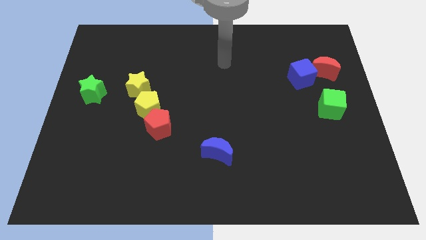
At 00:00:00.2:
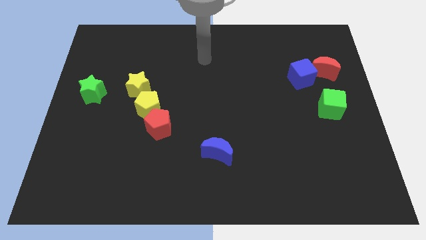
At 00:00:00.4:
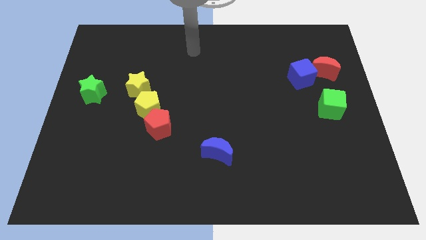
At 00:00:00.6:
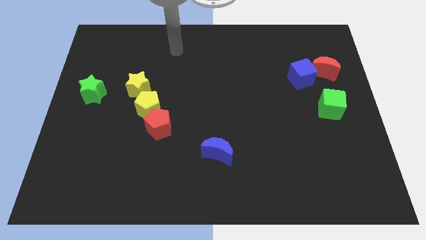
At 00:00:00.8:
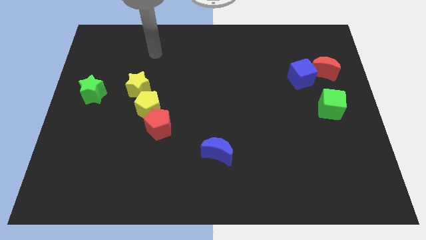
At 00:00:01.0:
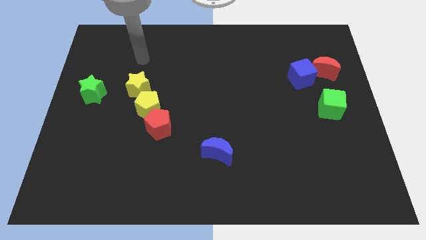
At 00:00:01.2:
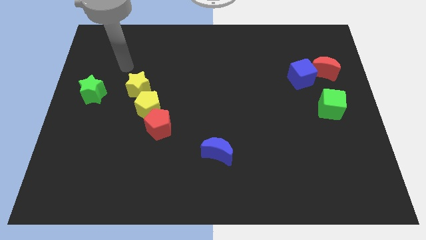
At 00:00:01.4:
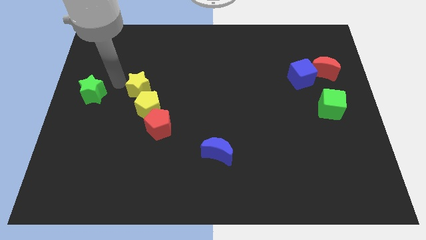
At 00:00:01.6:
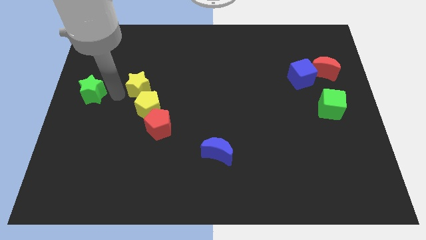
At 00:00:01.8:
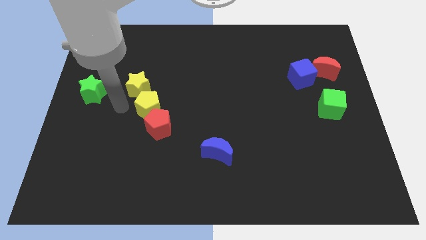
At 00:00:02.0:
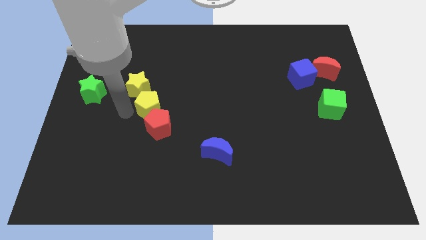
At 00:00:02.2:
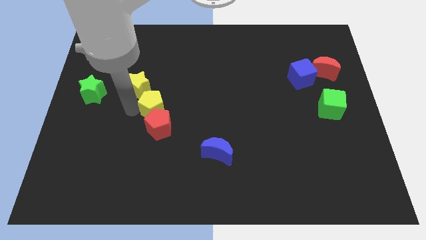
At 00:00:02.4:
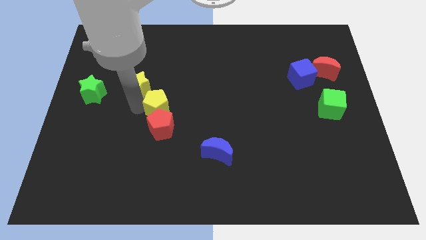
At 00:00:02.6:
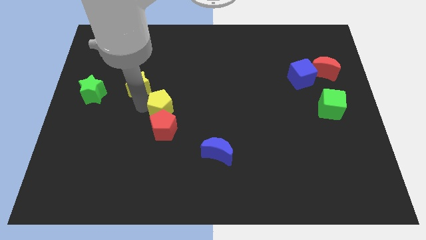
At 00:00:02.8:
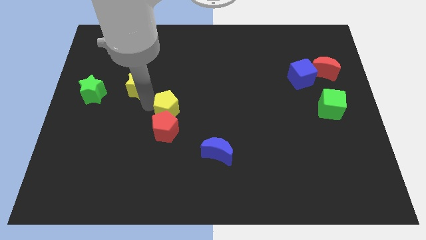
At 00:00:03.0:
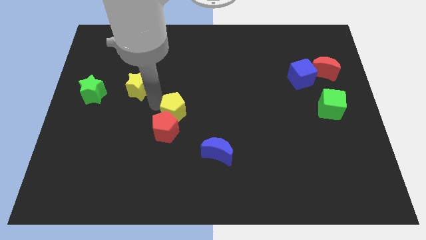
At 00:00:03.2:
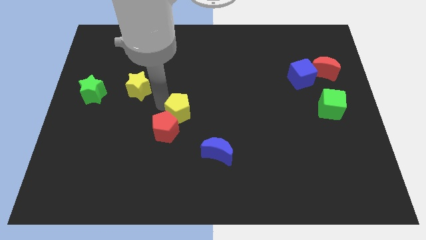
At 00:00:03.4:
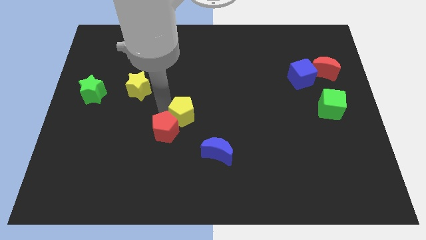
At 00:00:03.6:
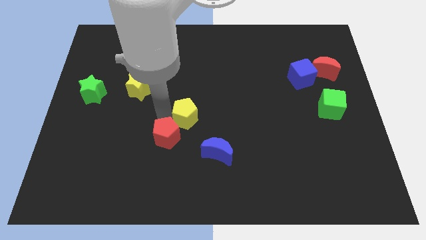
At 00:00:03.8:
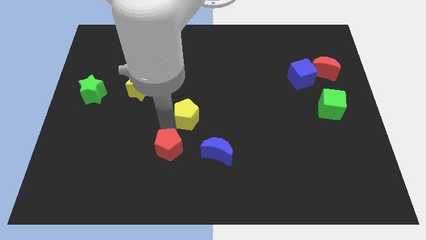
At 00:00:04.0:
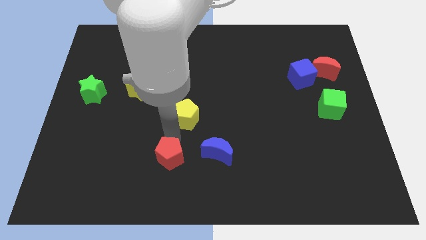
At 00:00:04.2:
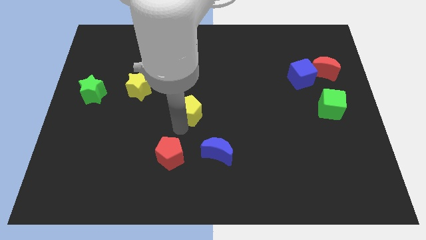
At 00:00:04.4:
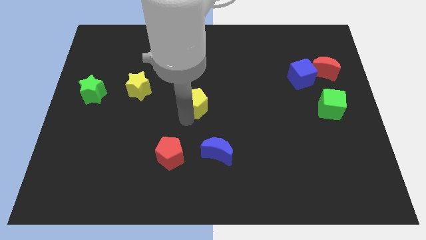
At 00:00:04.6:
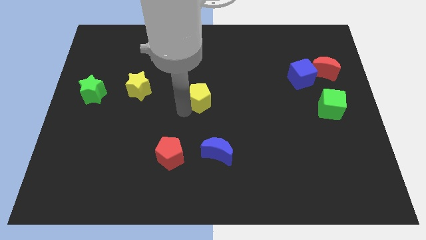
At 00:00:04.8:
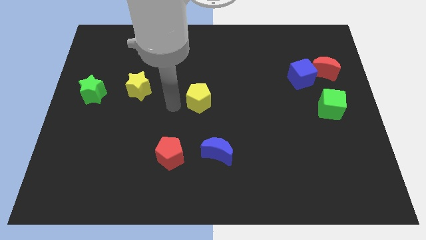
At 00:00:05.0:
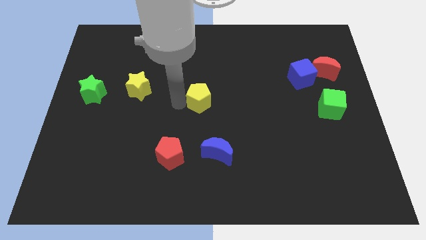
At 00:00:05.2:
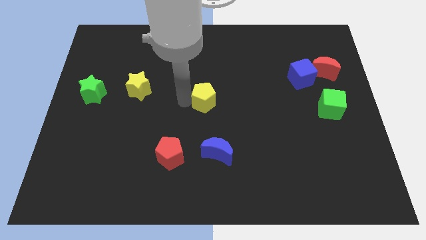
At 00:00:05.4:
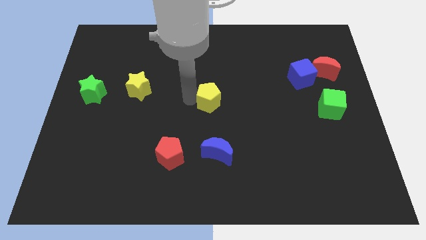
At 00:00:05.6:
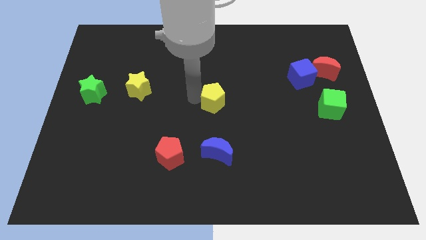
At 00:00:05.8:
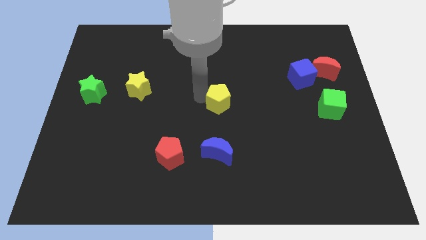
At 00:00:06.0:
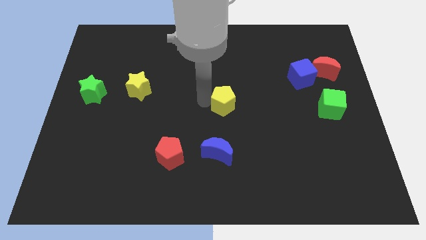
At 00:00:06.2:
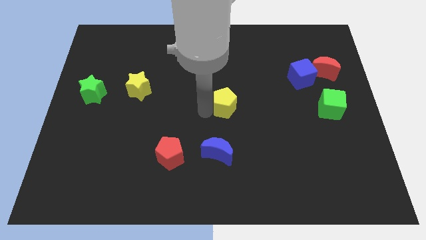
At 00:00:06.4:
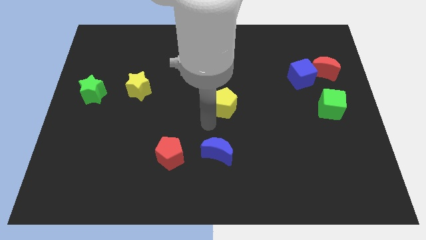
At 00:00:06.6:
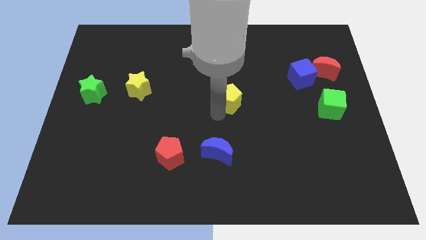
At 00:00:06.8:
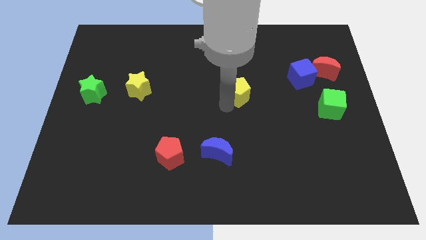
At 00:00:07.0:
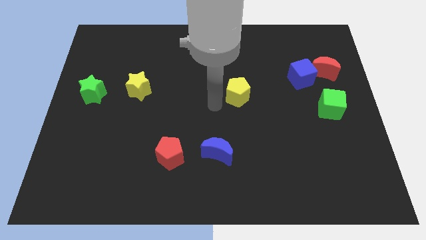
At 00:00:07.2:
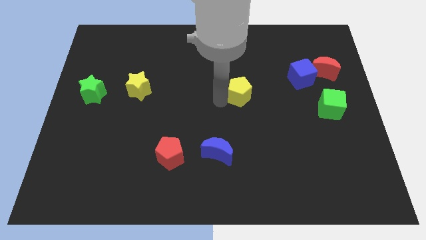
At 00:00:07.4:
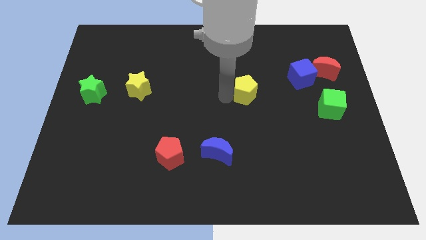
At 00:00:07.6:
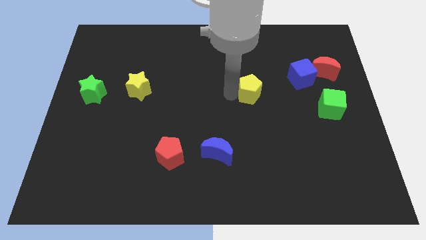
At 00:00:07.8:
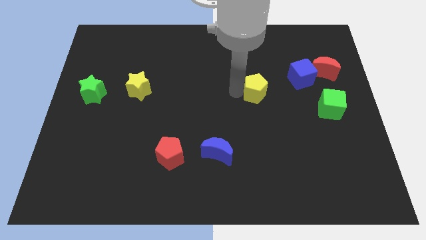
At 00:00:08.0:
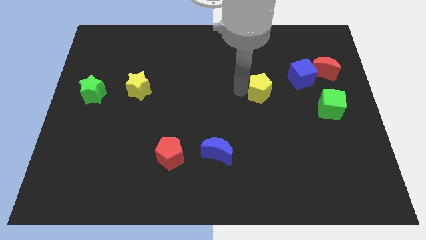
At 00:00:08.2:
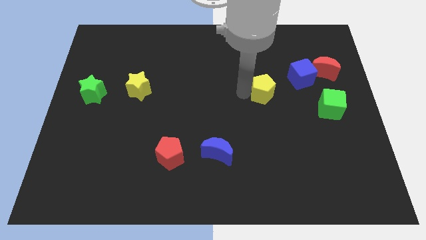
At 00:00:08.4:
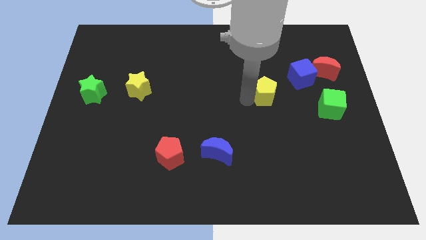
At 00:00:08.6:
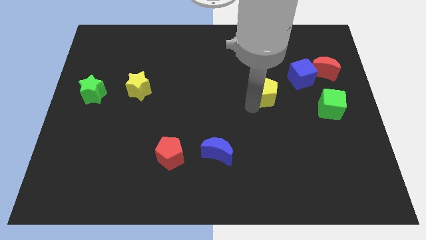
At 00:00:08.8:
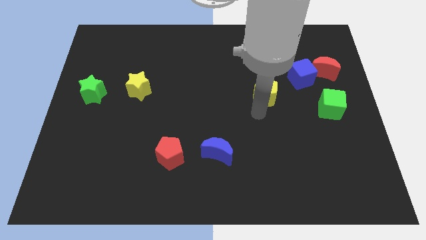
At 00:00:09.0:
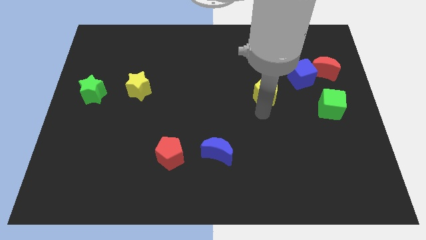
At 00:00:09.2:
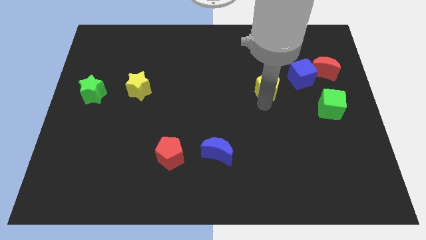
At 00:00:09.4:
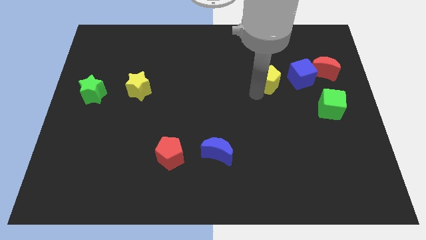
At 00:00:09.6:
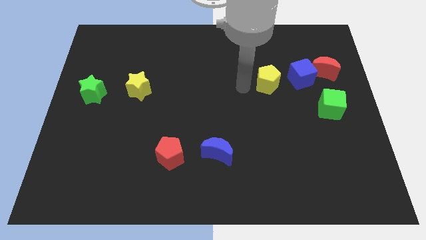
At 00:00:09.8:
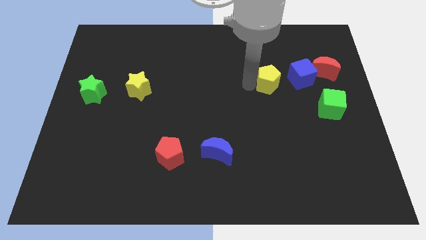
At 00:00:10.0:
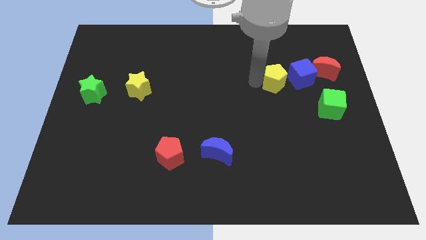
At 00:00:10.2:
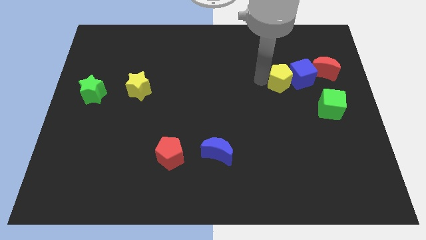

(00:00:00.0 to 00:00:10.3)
slide the yellow pentagon towards the blue cube

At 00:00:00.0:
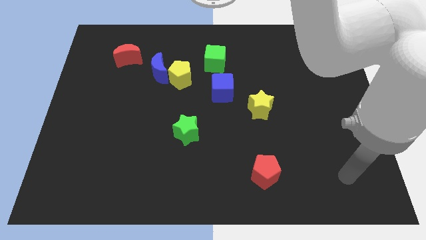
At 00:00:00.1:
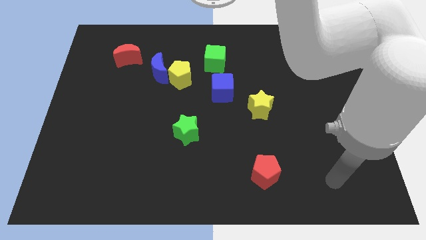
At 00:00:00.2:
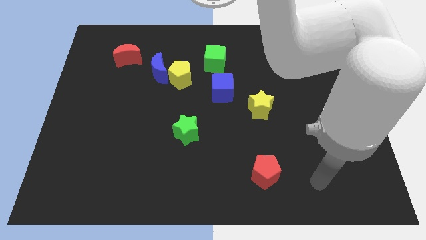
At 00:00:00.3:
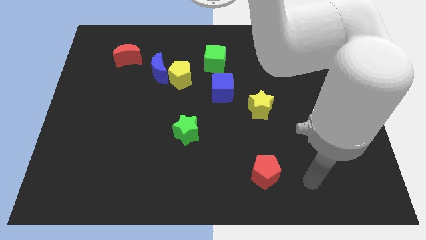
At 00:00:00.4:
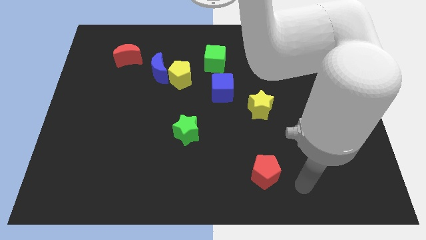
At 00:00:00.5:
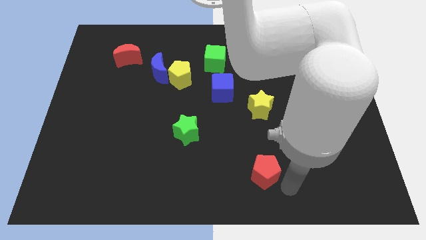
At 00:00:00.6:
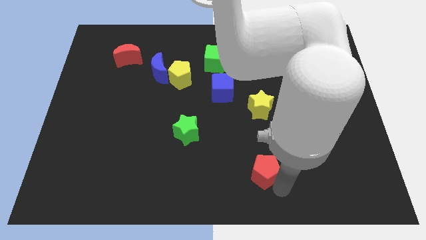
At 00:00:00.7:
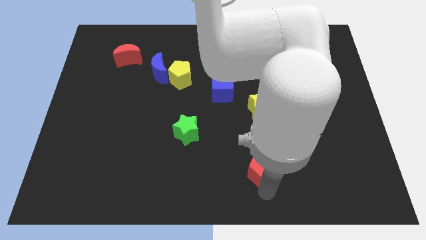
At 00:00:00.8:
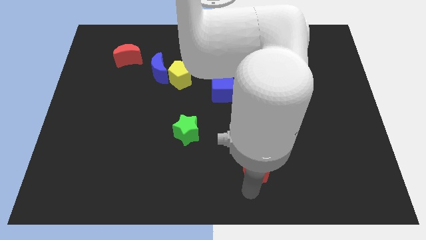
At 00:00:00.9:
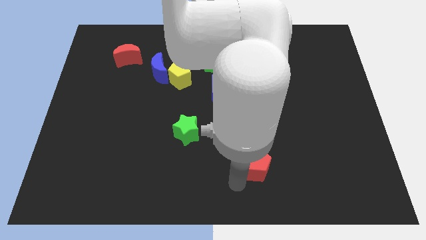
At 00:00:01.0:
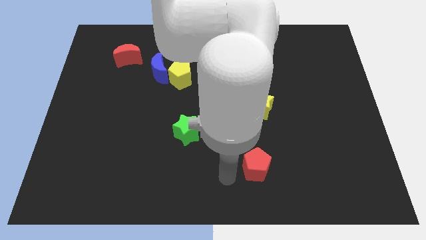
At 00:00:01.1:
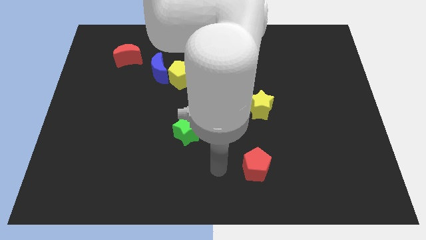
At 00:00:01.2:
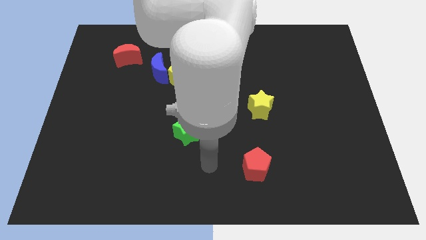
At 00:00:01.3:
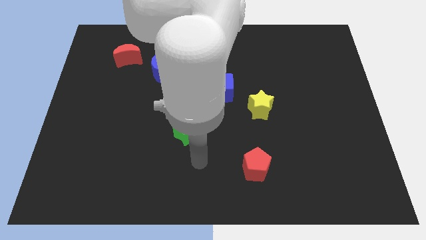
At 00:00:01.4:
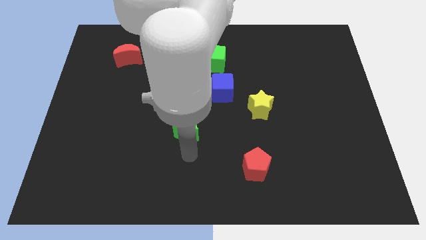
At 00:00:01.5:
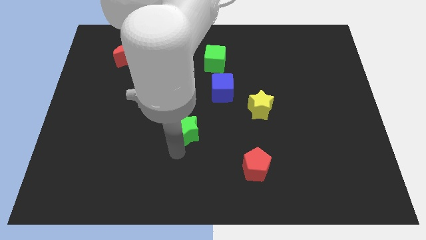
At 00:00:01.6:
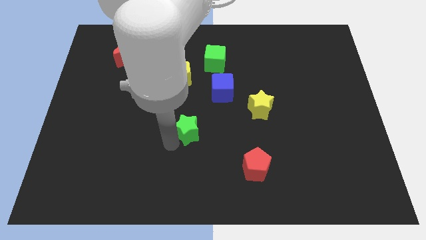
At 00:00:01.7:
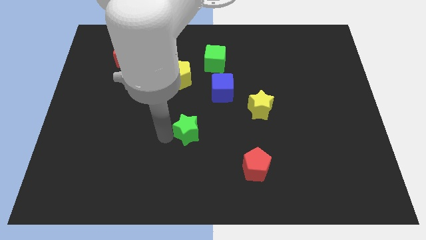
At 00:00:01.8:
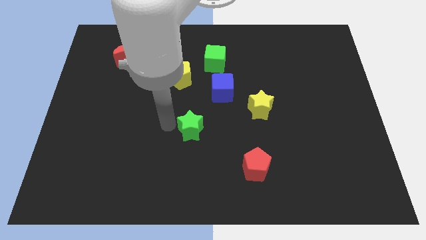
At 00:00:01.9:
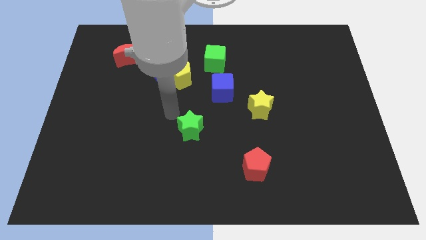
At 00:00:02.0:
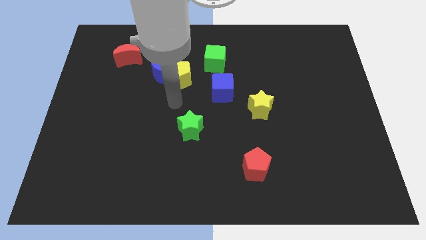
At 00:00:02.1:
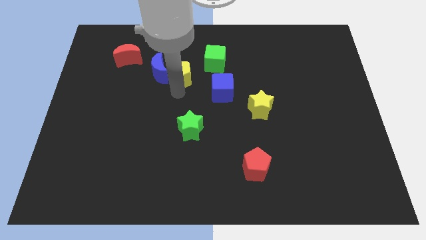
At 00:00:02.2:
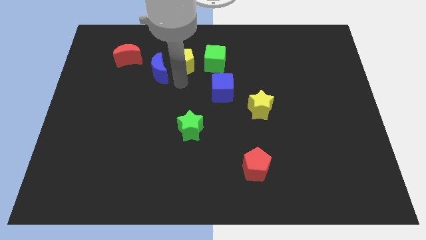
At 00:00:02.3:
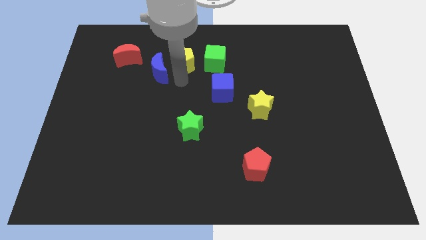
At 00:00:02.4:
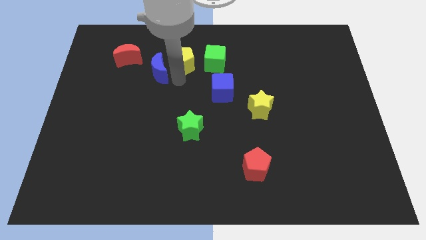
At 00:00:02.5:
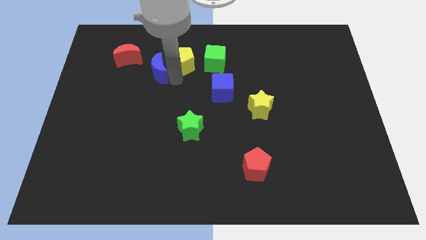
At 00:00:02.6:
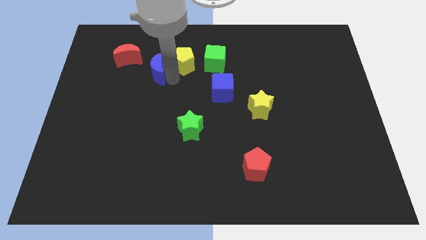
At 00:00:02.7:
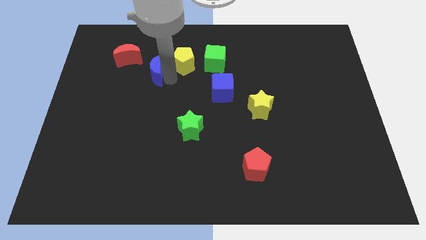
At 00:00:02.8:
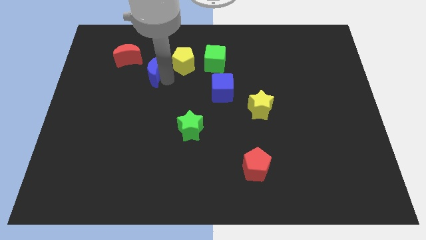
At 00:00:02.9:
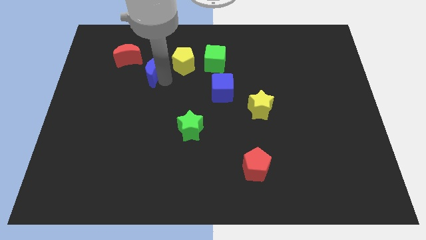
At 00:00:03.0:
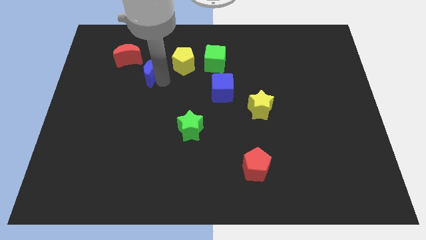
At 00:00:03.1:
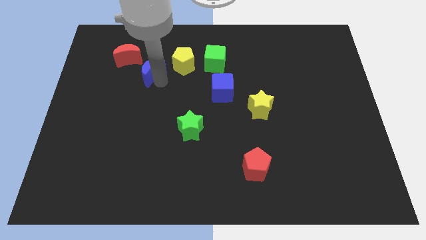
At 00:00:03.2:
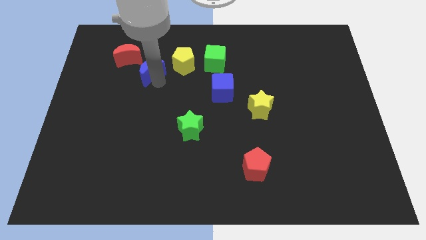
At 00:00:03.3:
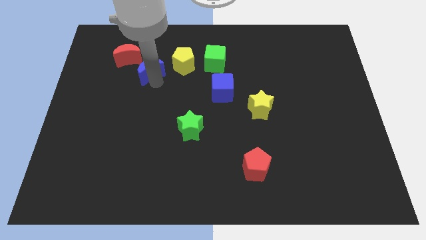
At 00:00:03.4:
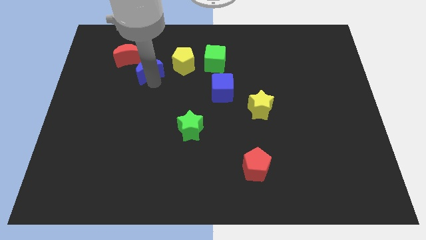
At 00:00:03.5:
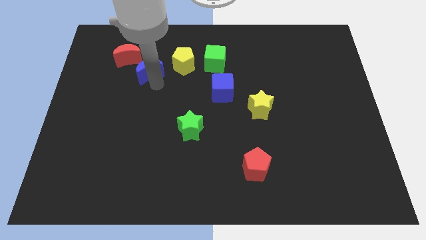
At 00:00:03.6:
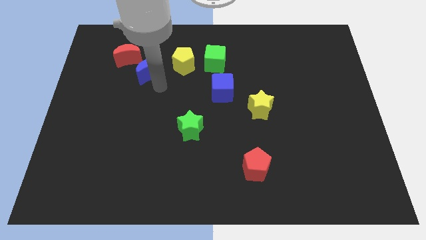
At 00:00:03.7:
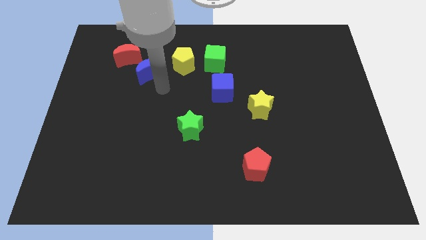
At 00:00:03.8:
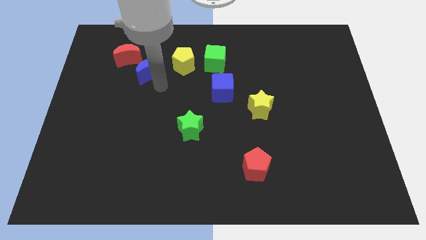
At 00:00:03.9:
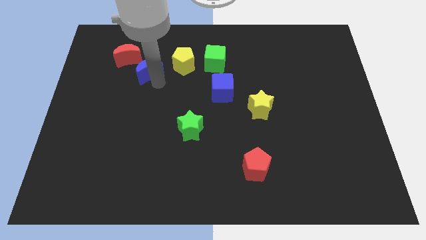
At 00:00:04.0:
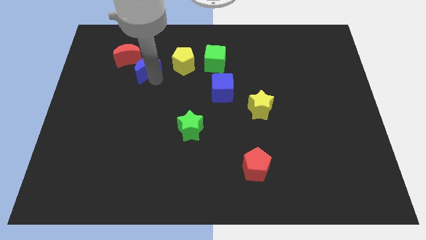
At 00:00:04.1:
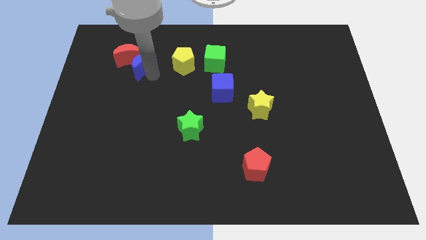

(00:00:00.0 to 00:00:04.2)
put the blue moon towards the red moon
